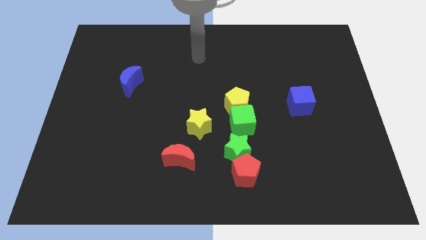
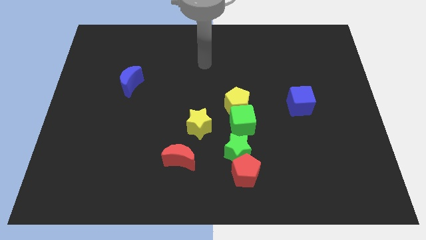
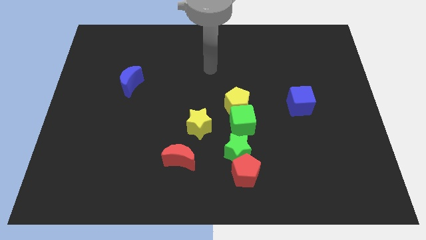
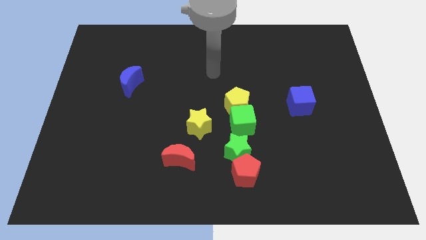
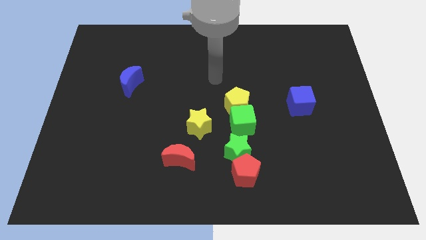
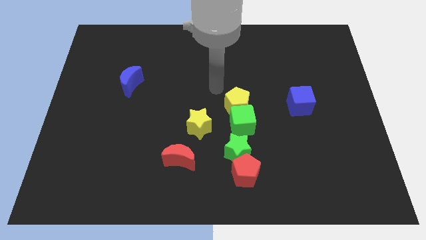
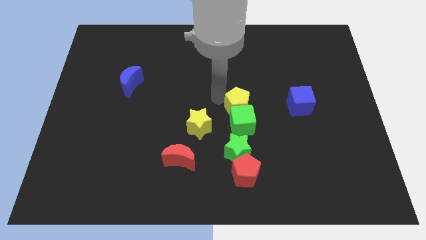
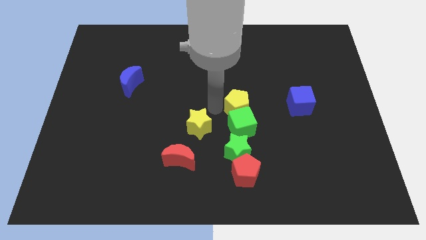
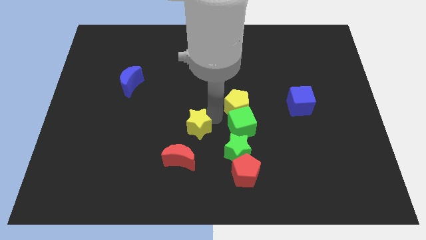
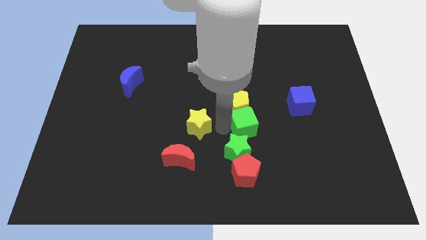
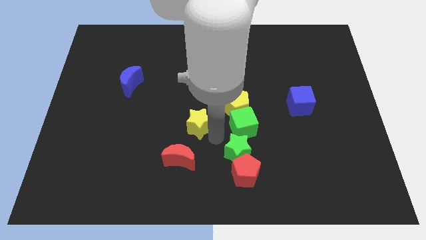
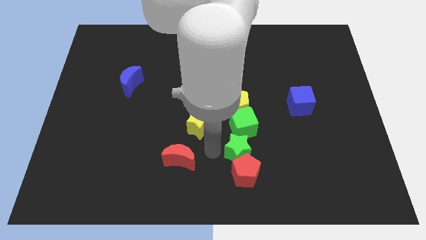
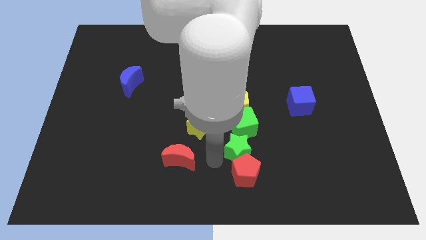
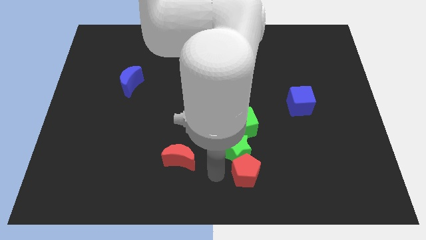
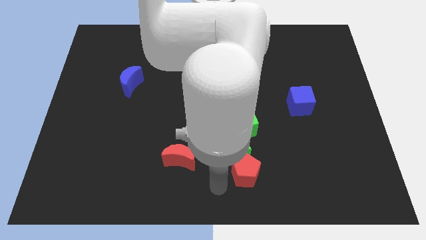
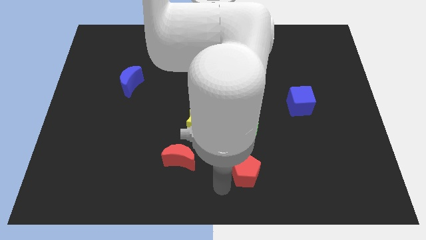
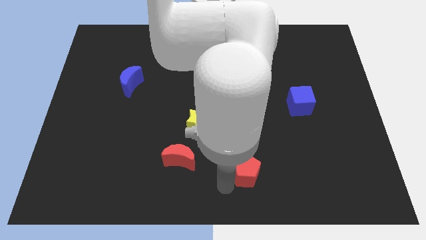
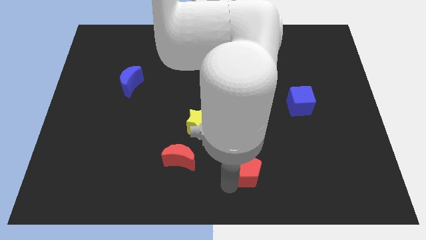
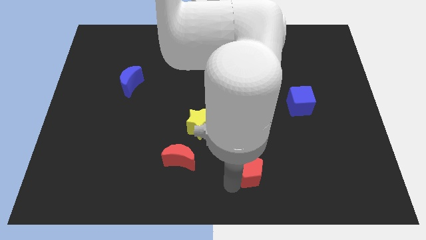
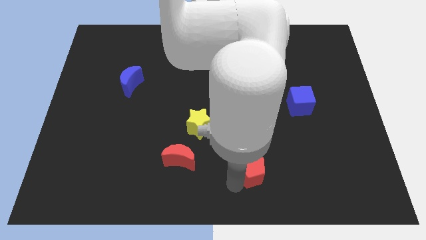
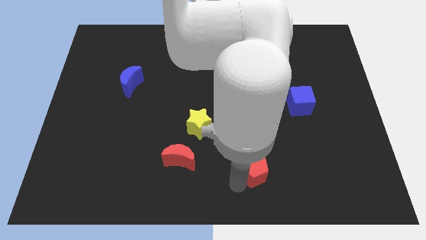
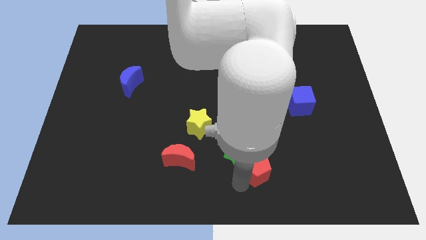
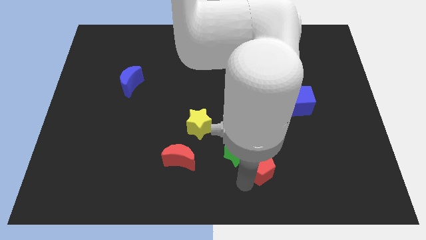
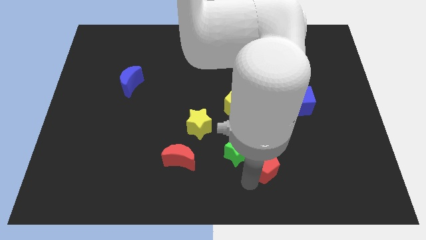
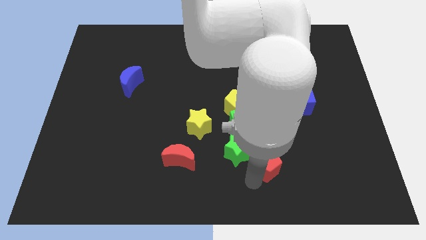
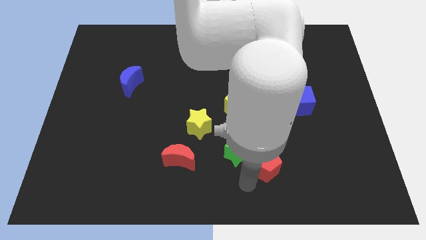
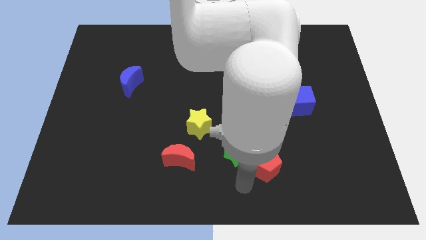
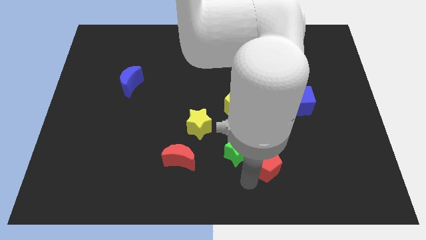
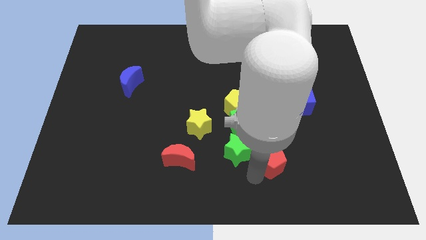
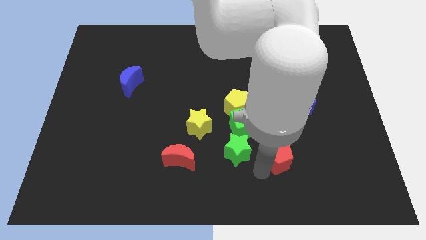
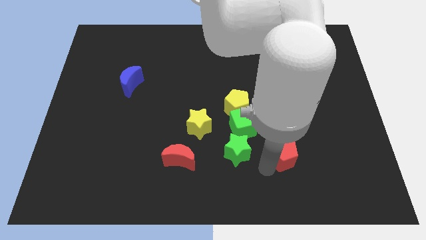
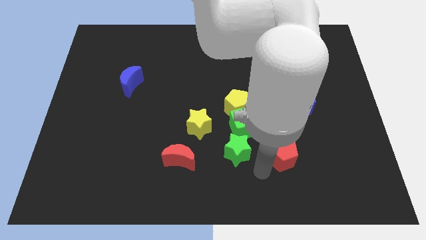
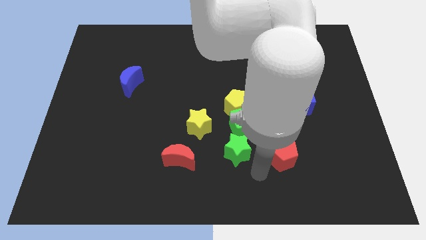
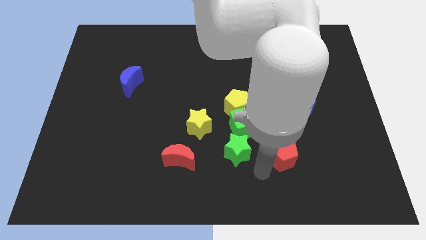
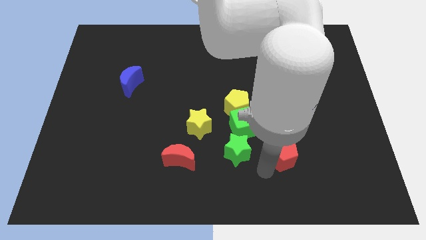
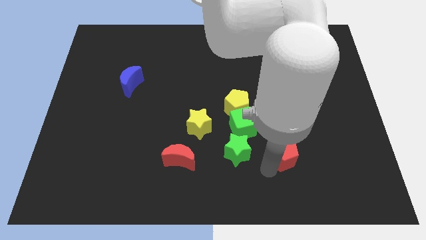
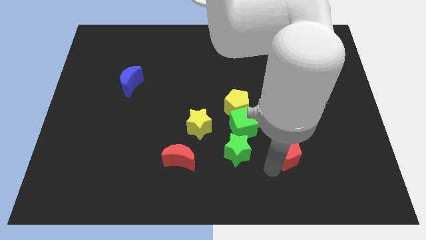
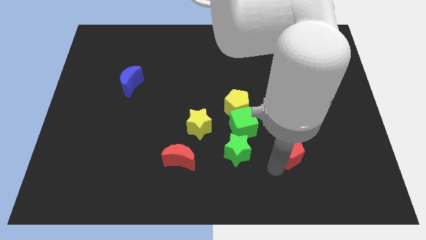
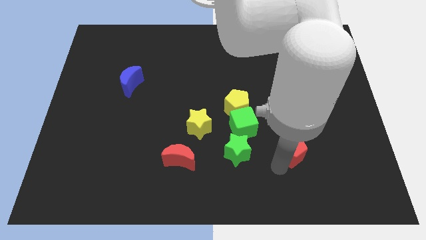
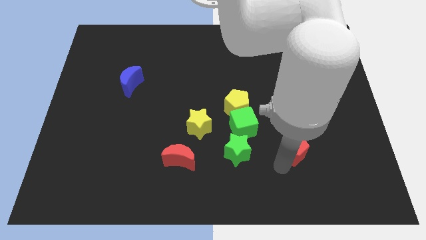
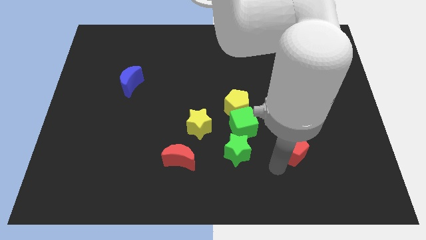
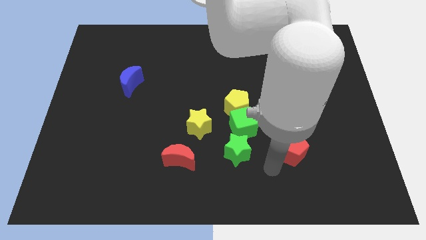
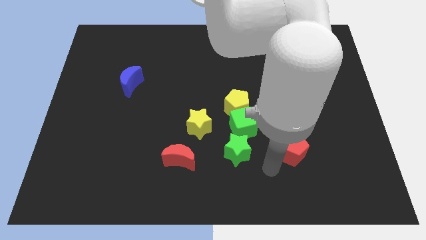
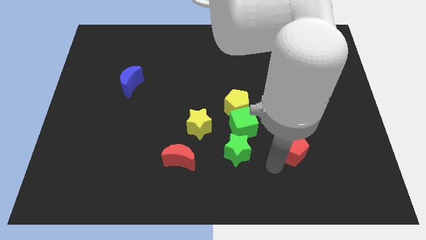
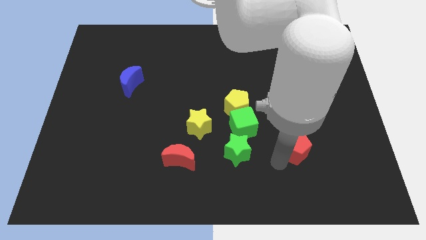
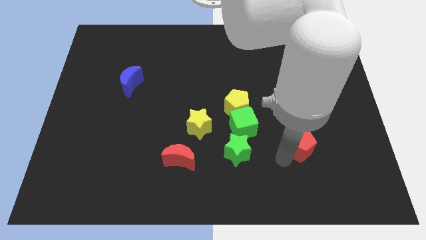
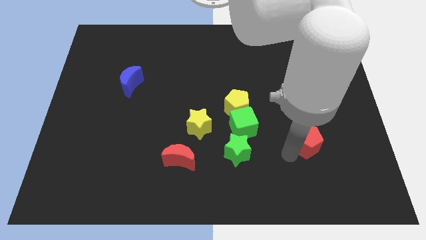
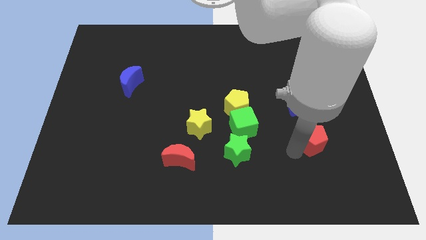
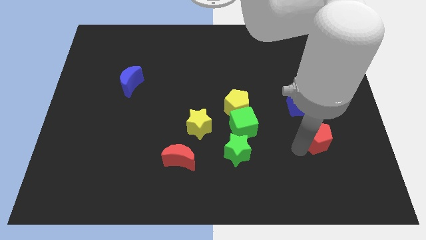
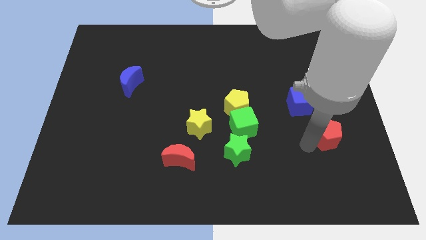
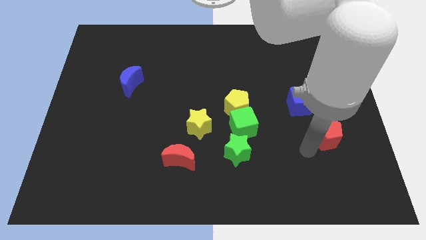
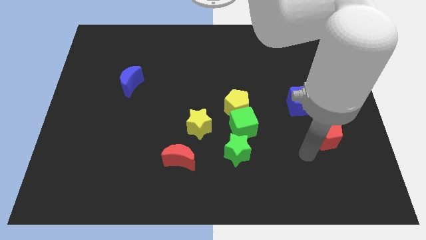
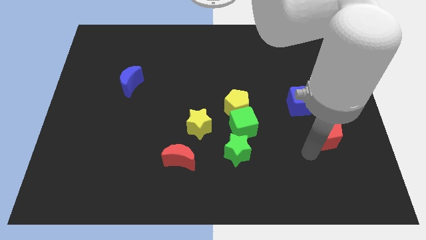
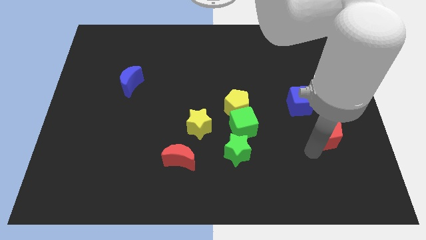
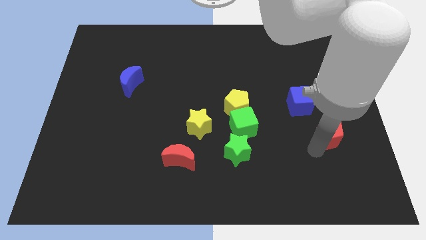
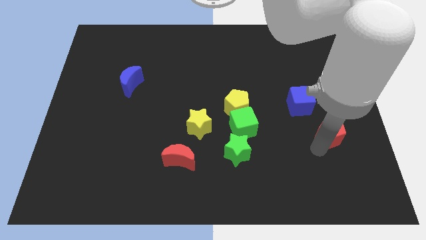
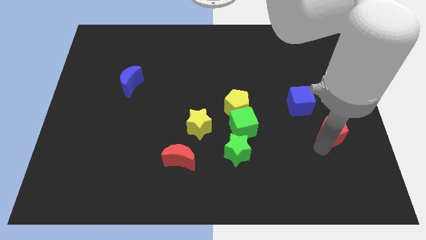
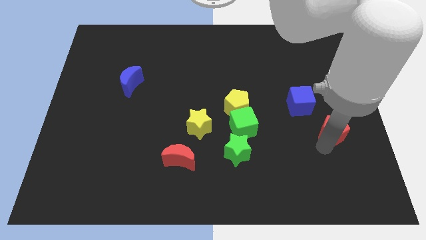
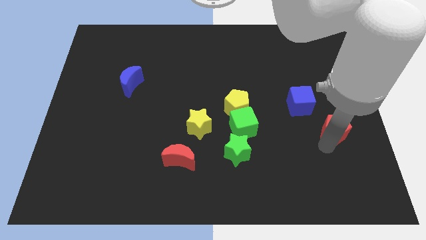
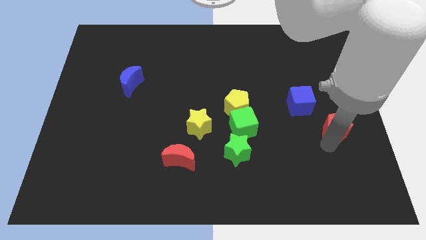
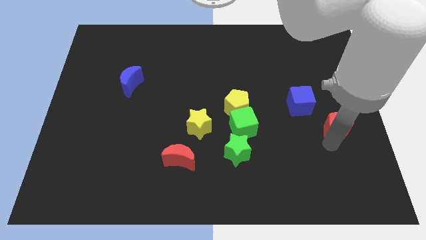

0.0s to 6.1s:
move the red pentagon to the center right
